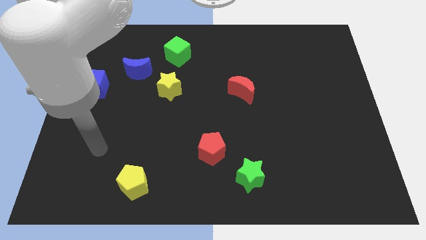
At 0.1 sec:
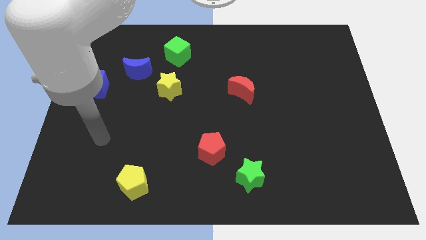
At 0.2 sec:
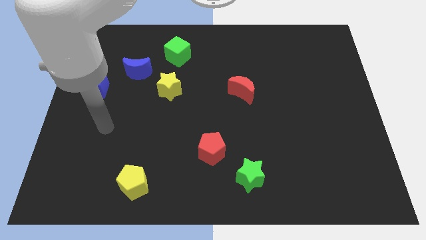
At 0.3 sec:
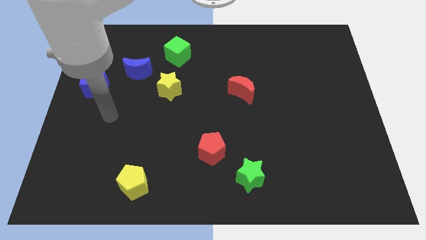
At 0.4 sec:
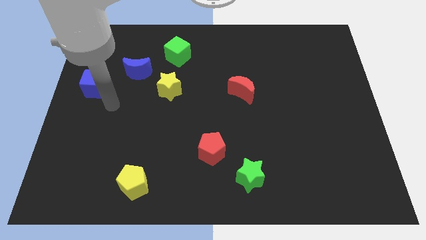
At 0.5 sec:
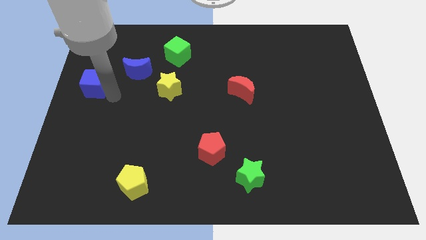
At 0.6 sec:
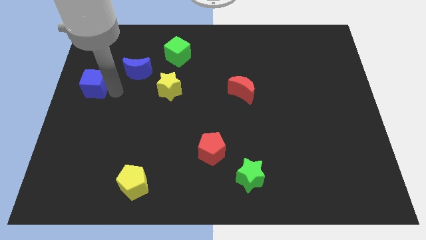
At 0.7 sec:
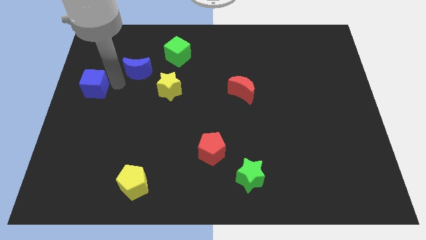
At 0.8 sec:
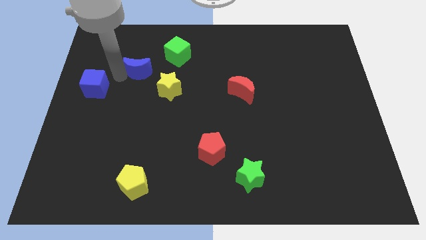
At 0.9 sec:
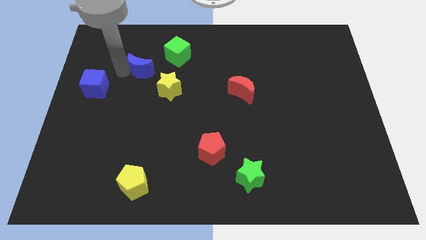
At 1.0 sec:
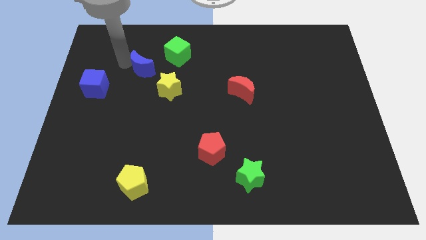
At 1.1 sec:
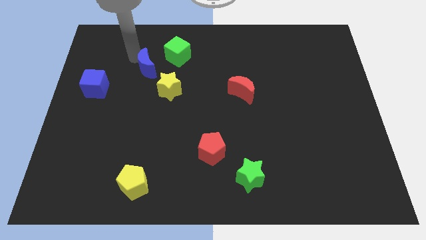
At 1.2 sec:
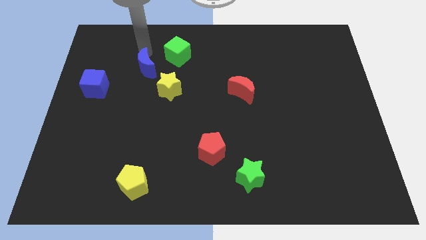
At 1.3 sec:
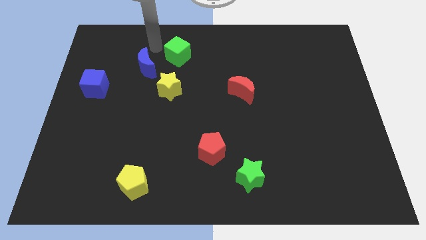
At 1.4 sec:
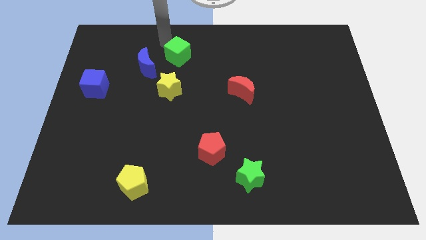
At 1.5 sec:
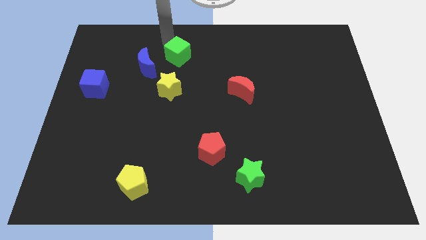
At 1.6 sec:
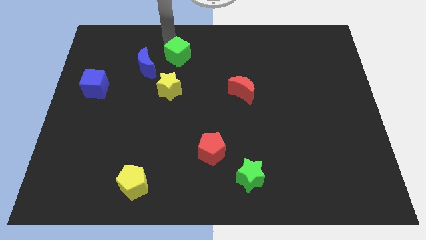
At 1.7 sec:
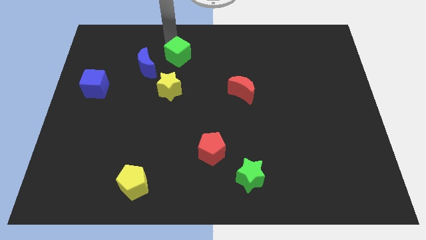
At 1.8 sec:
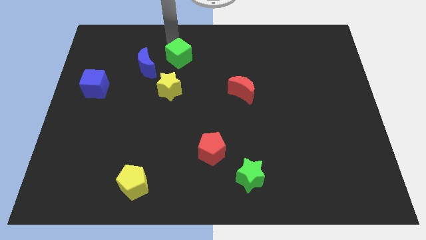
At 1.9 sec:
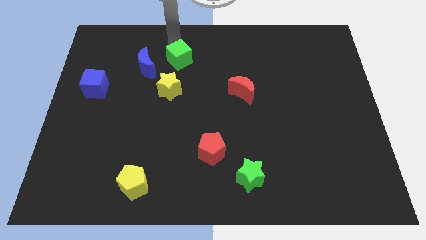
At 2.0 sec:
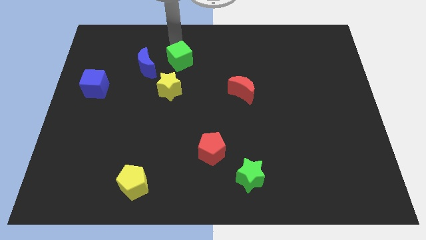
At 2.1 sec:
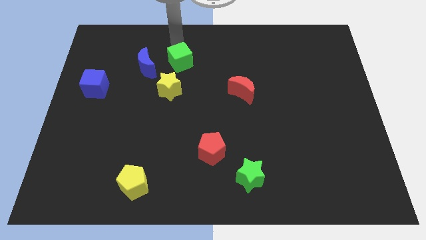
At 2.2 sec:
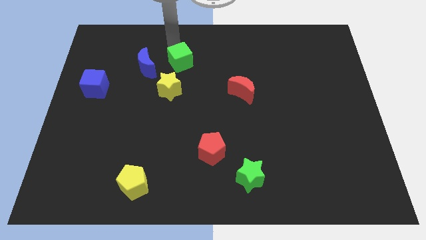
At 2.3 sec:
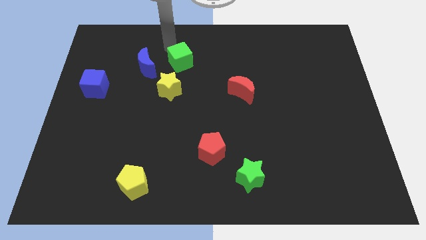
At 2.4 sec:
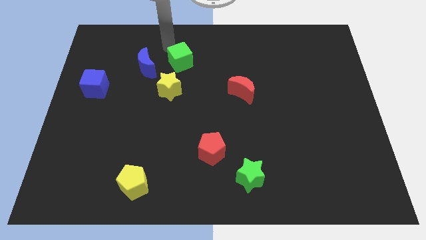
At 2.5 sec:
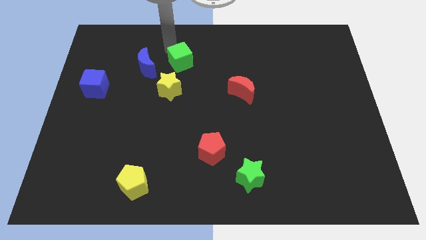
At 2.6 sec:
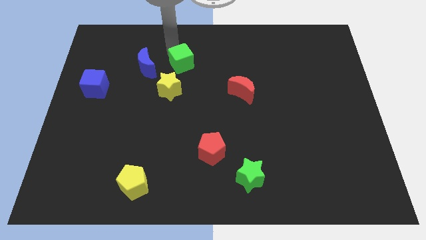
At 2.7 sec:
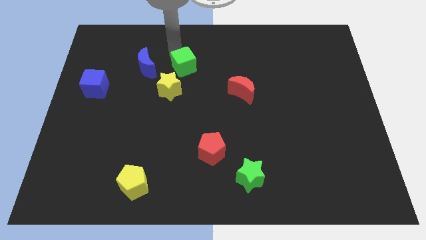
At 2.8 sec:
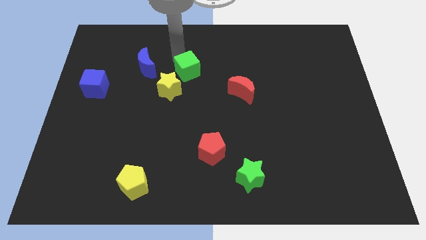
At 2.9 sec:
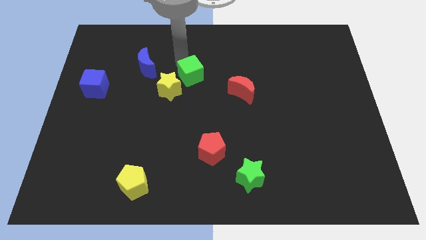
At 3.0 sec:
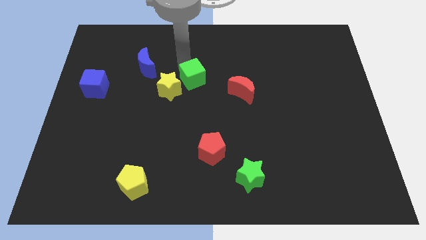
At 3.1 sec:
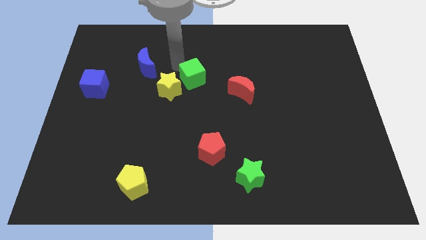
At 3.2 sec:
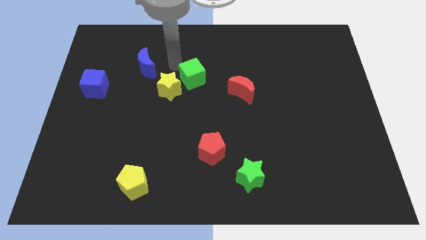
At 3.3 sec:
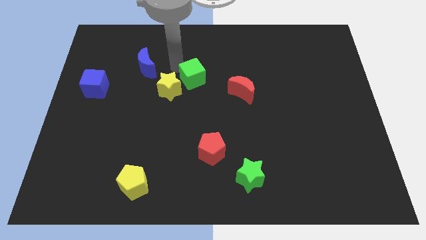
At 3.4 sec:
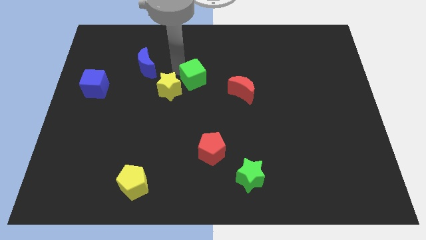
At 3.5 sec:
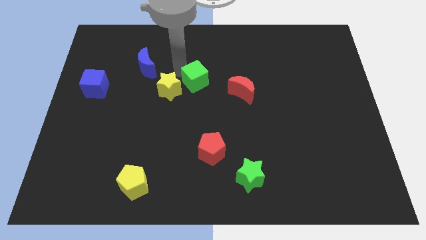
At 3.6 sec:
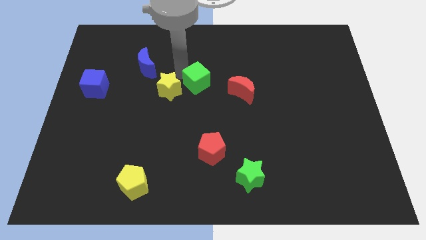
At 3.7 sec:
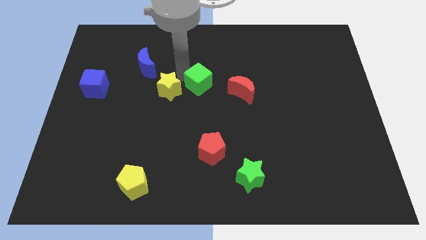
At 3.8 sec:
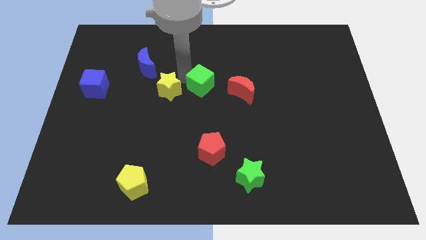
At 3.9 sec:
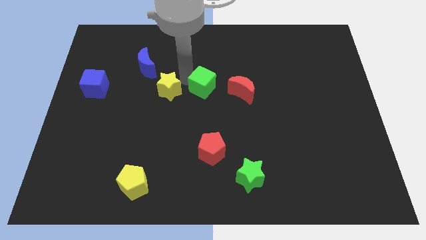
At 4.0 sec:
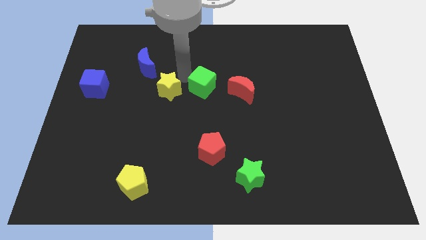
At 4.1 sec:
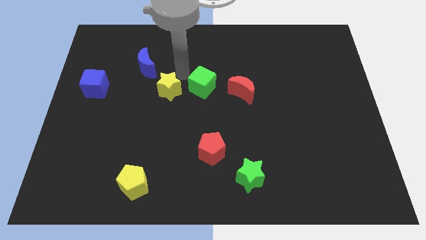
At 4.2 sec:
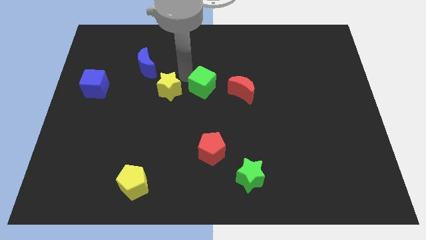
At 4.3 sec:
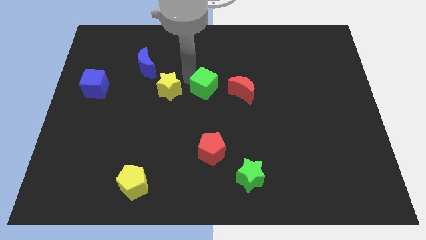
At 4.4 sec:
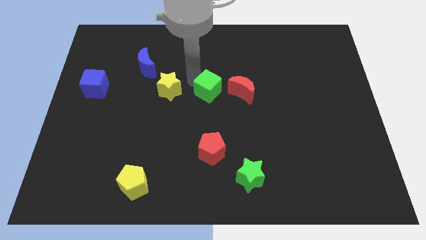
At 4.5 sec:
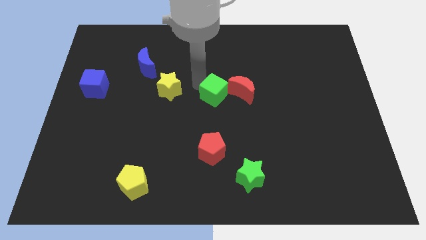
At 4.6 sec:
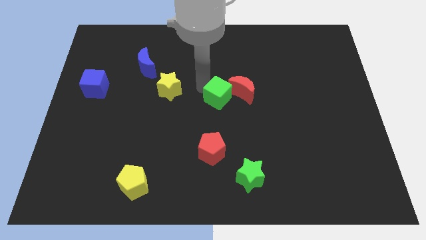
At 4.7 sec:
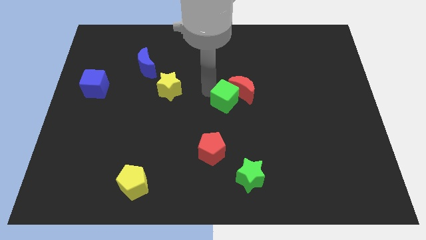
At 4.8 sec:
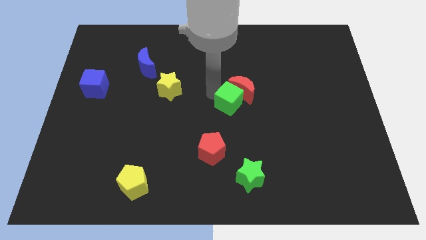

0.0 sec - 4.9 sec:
slide the green cube down and to the right diagonally

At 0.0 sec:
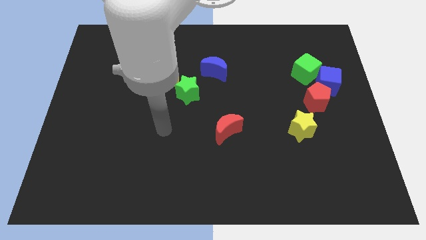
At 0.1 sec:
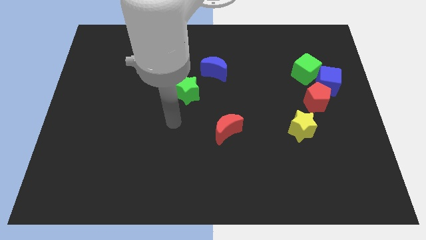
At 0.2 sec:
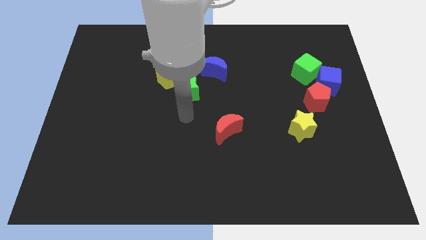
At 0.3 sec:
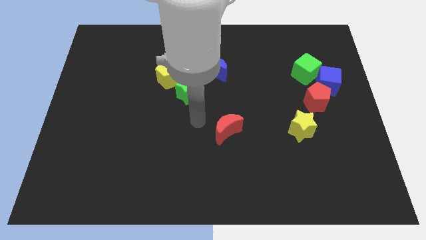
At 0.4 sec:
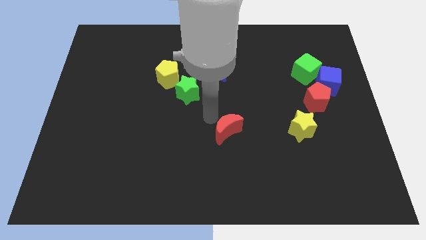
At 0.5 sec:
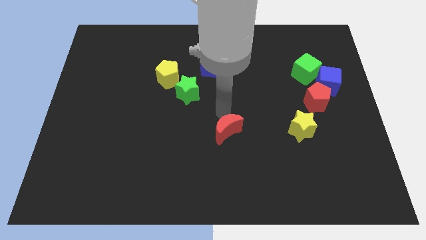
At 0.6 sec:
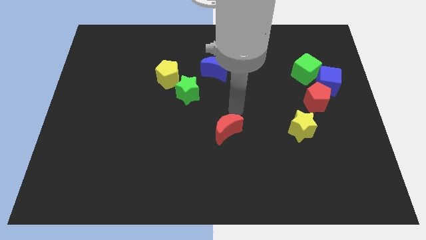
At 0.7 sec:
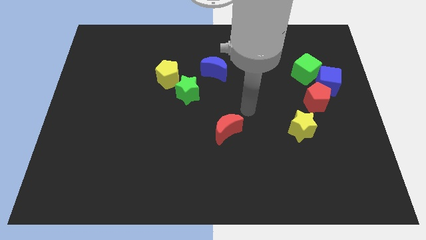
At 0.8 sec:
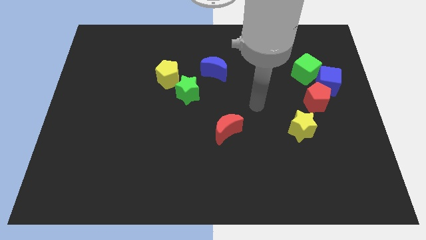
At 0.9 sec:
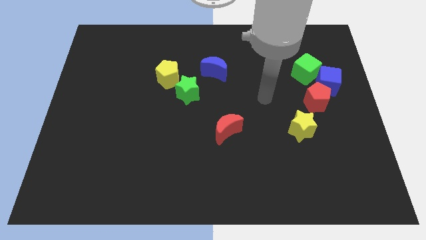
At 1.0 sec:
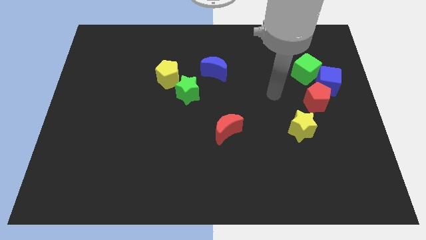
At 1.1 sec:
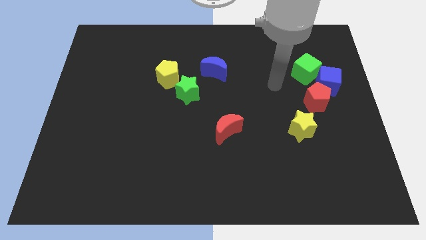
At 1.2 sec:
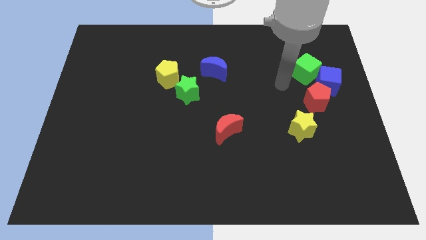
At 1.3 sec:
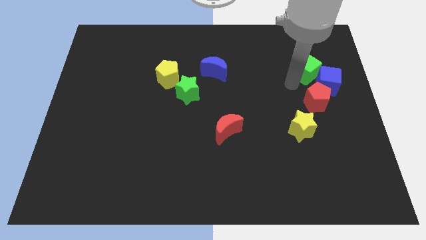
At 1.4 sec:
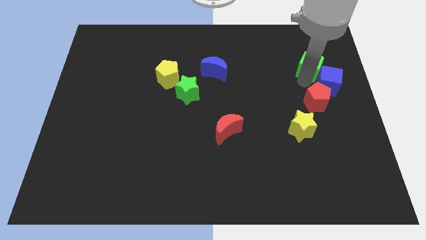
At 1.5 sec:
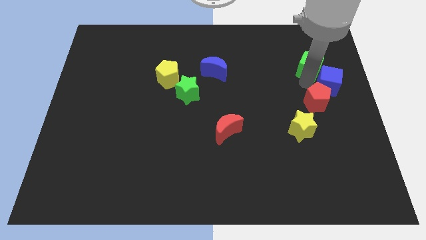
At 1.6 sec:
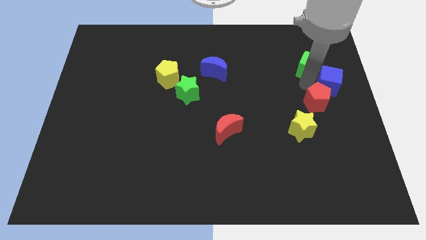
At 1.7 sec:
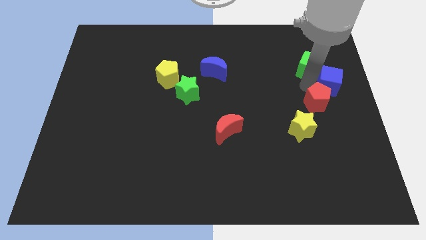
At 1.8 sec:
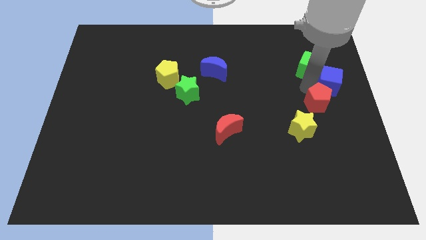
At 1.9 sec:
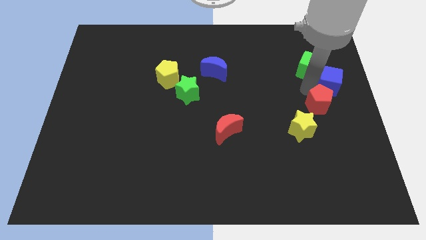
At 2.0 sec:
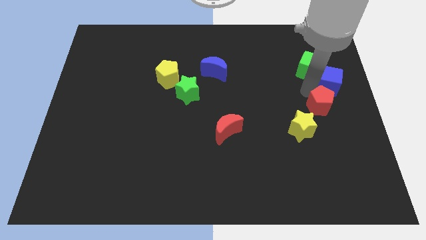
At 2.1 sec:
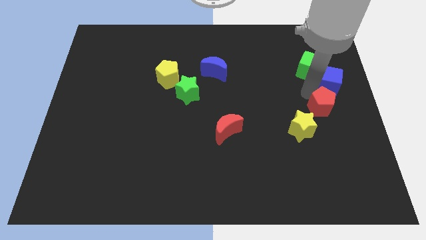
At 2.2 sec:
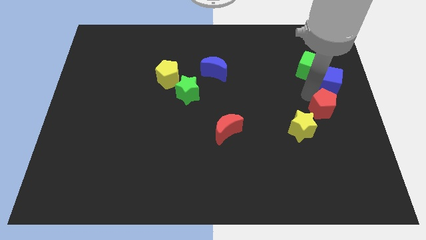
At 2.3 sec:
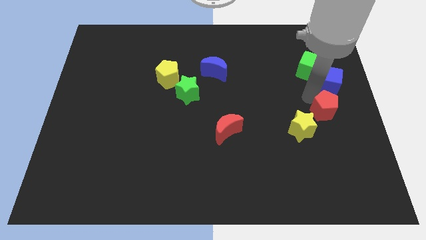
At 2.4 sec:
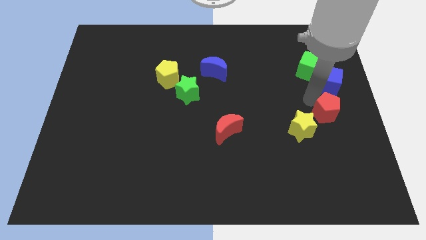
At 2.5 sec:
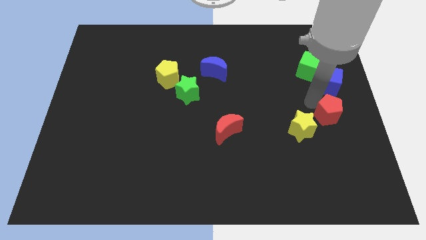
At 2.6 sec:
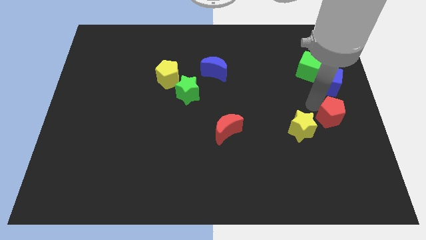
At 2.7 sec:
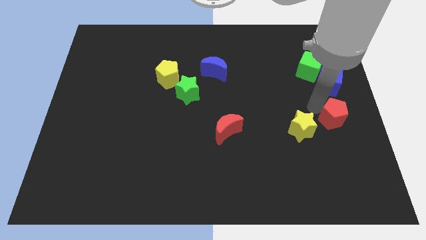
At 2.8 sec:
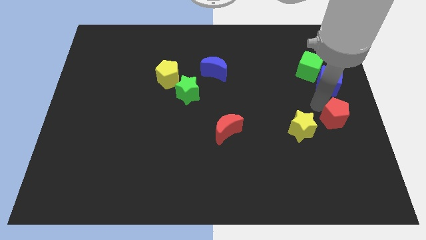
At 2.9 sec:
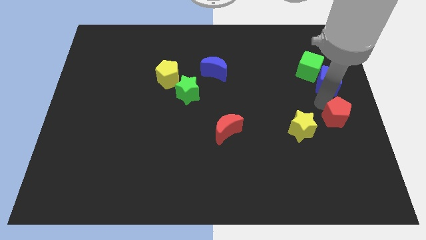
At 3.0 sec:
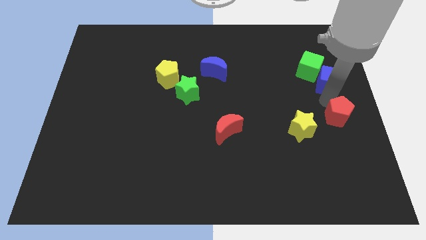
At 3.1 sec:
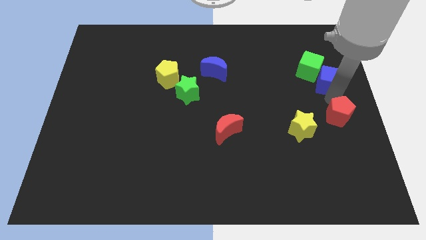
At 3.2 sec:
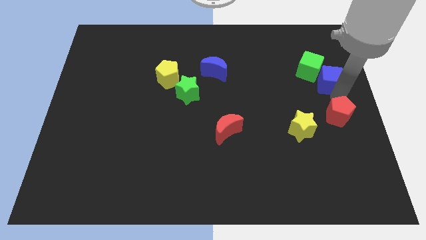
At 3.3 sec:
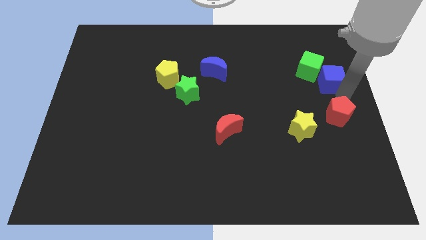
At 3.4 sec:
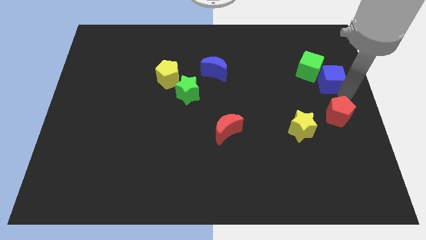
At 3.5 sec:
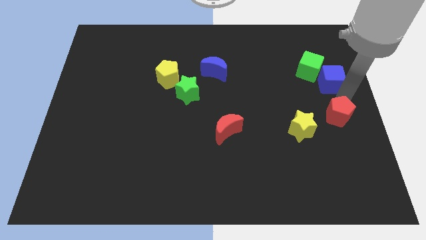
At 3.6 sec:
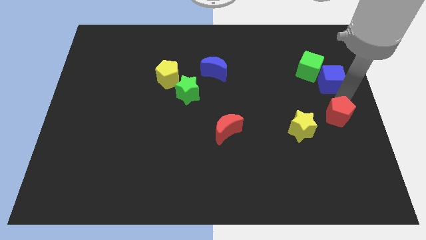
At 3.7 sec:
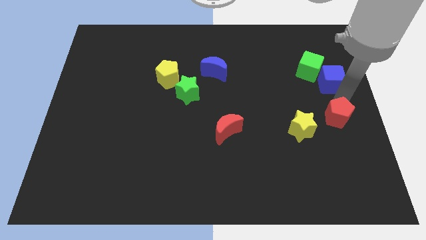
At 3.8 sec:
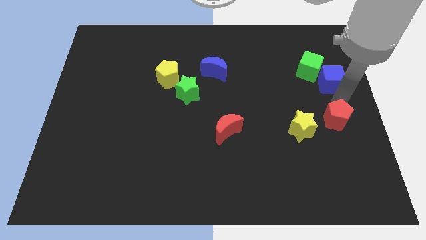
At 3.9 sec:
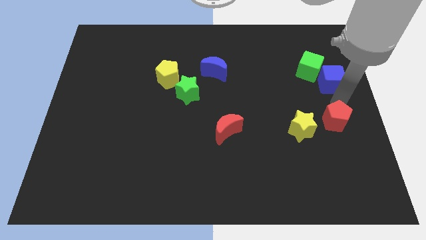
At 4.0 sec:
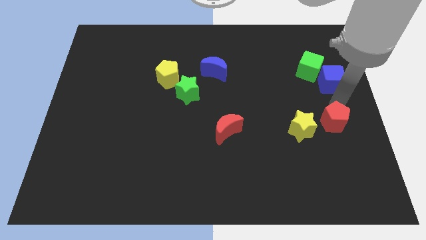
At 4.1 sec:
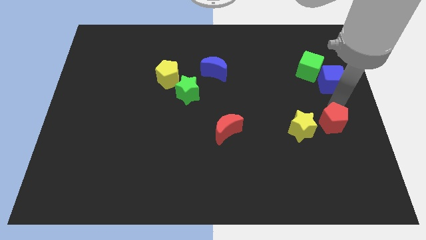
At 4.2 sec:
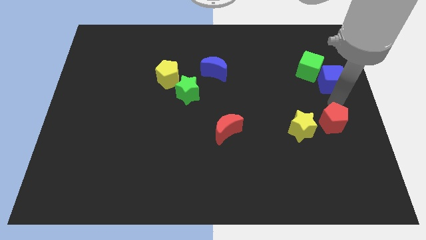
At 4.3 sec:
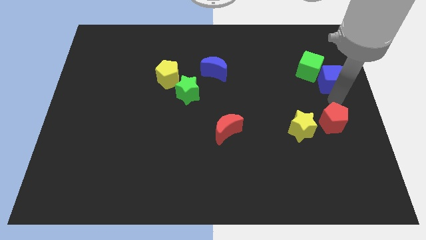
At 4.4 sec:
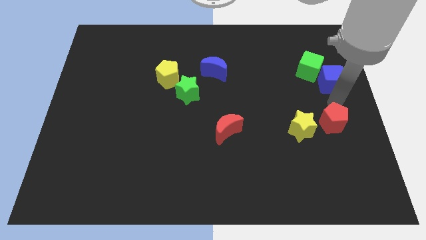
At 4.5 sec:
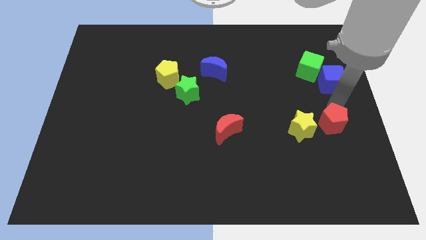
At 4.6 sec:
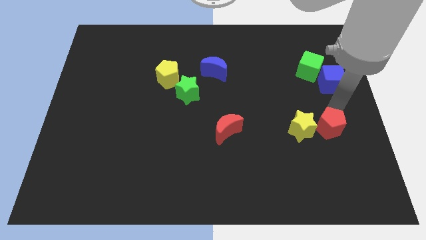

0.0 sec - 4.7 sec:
slightly move the red pentagon down
